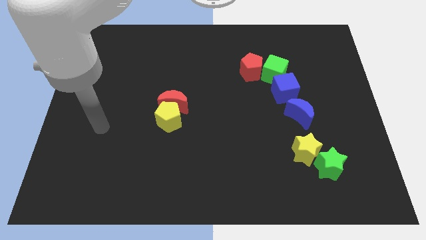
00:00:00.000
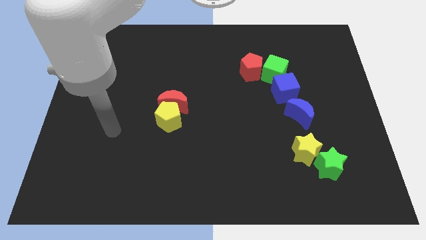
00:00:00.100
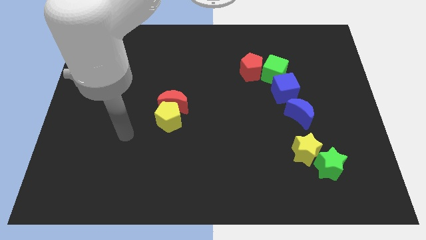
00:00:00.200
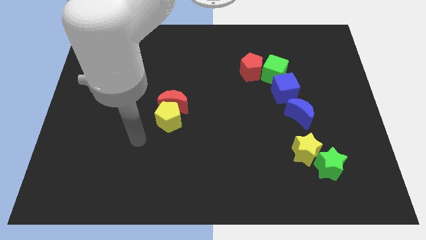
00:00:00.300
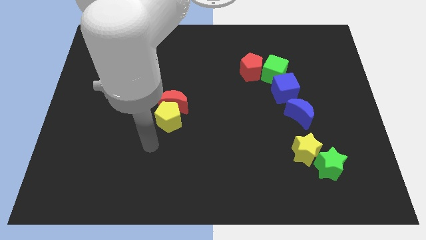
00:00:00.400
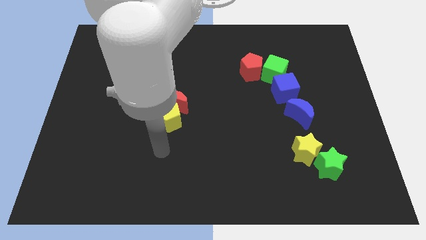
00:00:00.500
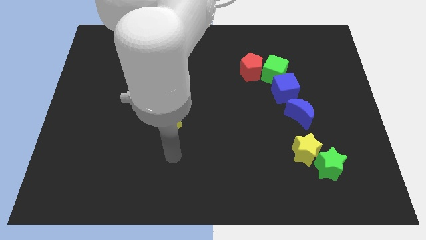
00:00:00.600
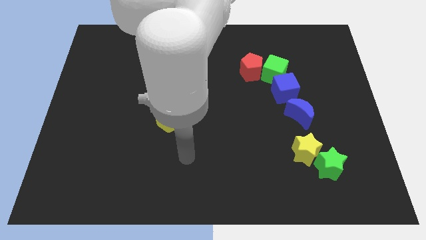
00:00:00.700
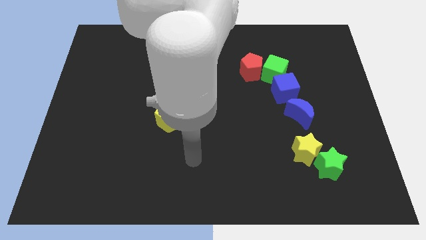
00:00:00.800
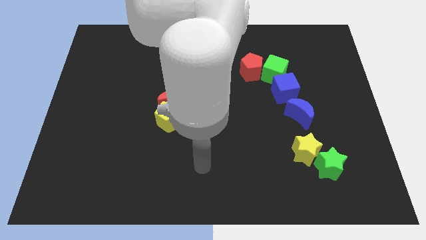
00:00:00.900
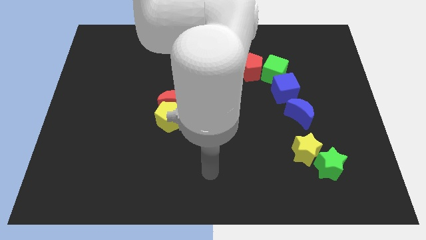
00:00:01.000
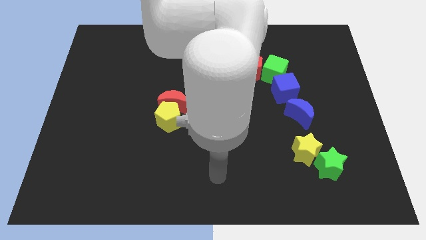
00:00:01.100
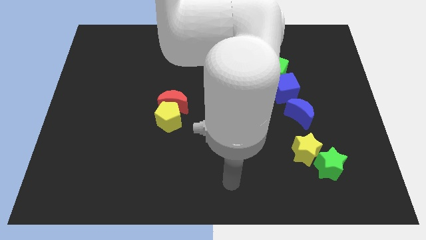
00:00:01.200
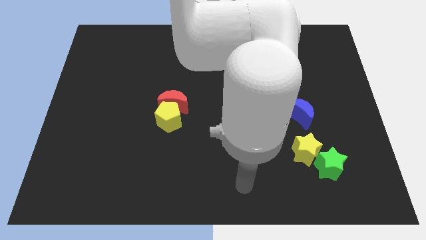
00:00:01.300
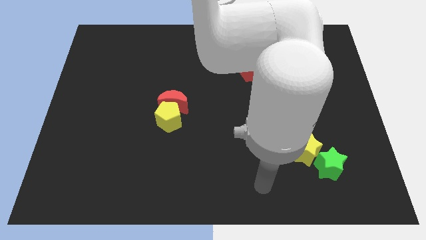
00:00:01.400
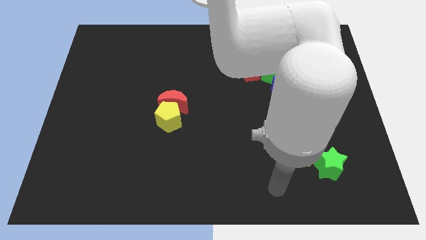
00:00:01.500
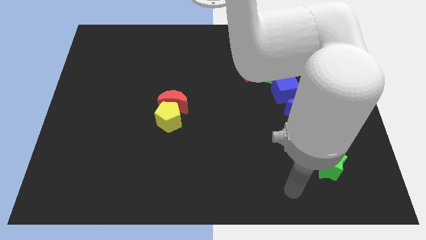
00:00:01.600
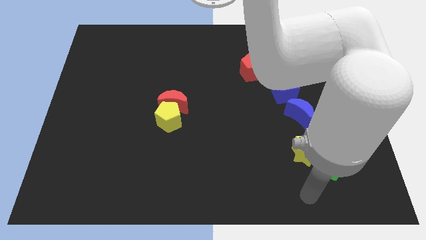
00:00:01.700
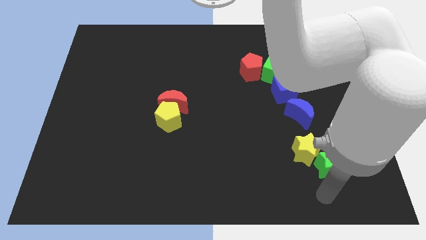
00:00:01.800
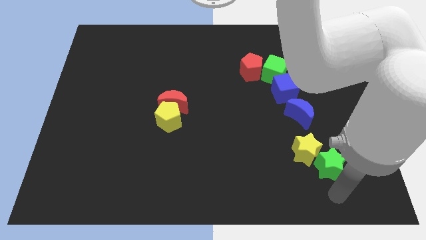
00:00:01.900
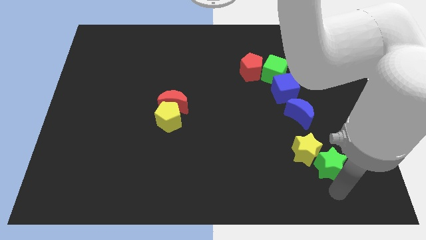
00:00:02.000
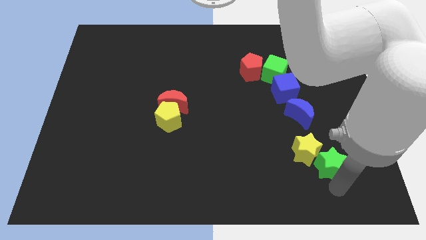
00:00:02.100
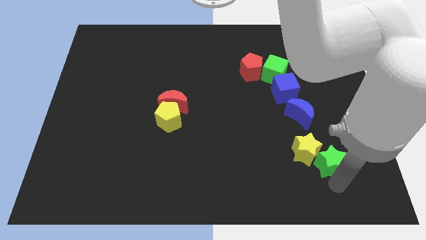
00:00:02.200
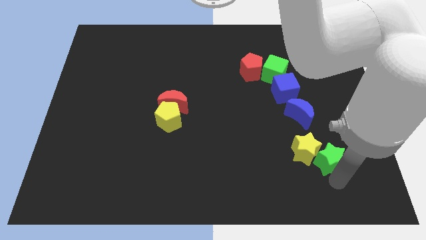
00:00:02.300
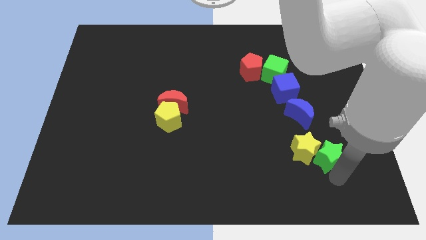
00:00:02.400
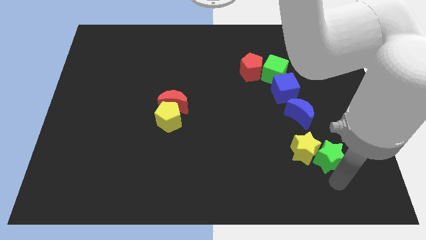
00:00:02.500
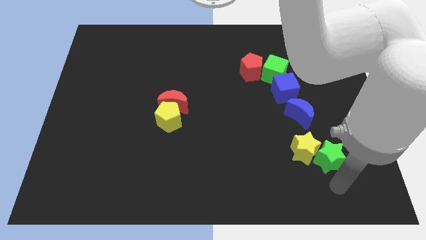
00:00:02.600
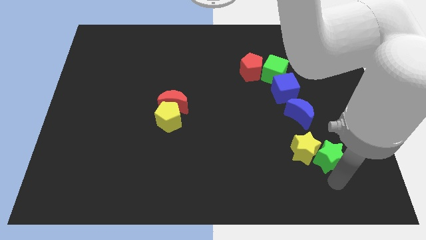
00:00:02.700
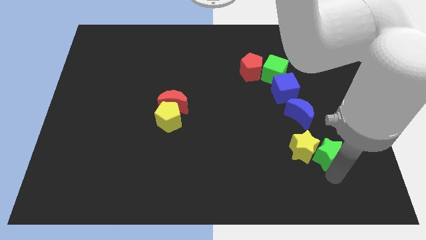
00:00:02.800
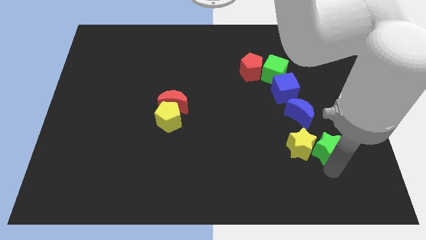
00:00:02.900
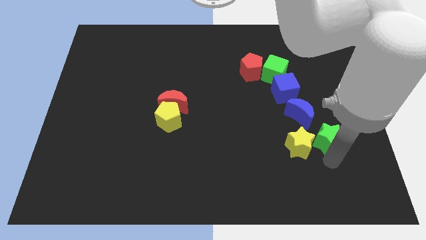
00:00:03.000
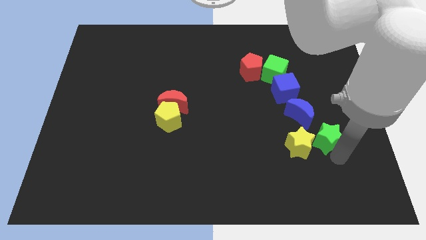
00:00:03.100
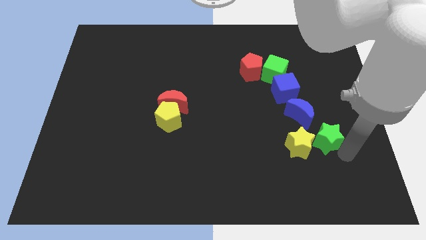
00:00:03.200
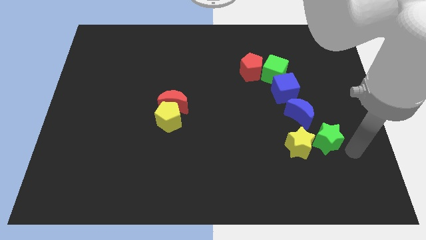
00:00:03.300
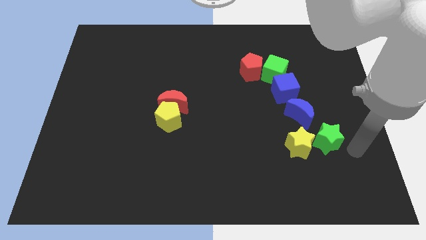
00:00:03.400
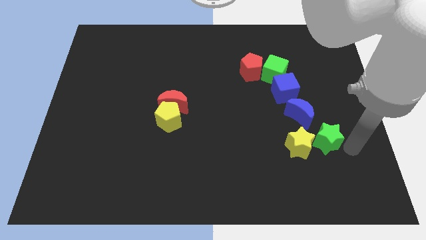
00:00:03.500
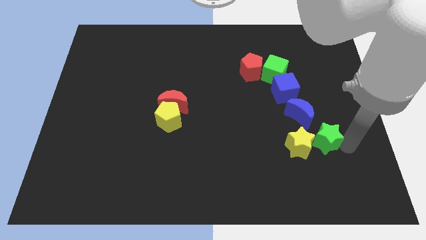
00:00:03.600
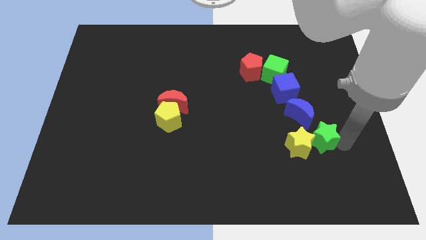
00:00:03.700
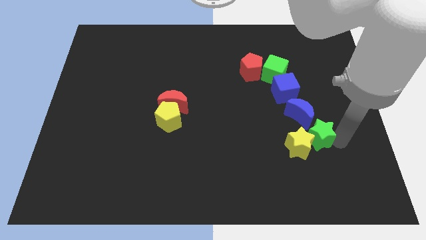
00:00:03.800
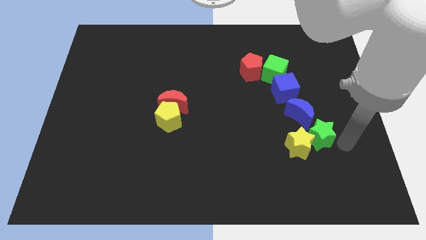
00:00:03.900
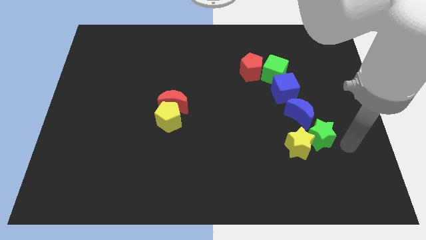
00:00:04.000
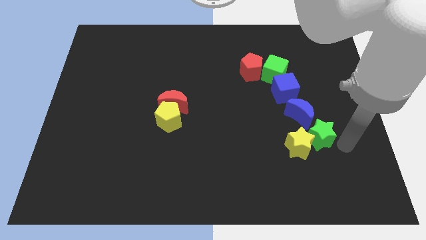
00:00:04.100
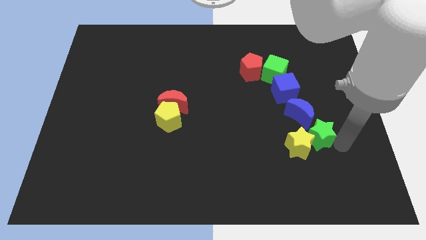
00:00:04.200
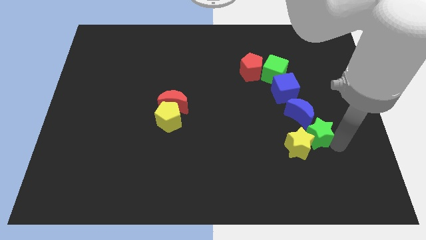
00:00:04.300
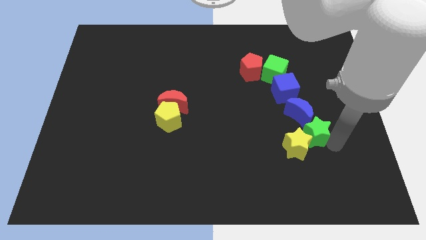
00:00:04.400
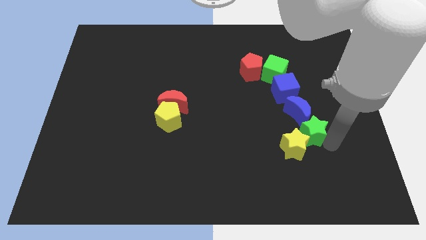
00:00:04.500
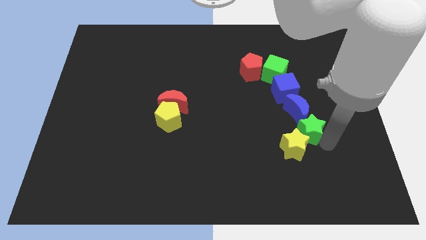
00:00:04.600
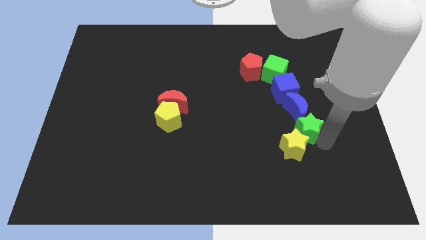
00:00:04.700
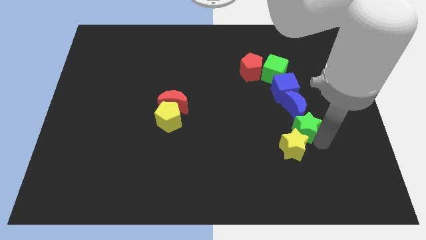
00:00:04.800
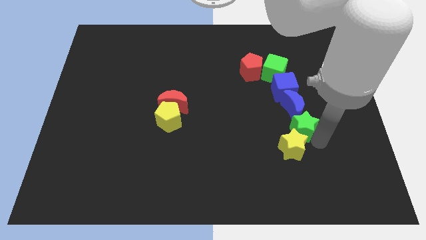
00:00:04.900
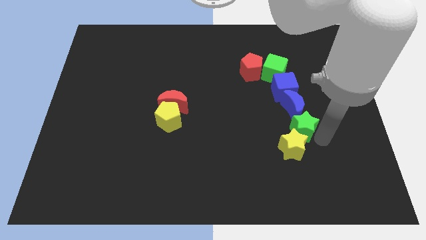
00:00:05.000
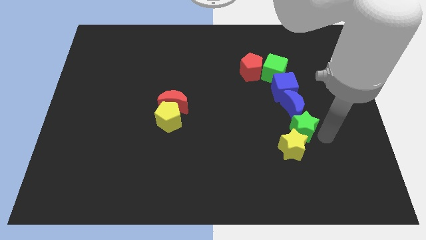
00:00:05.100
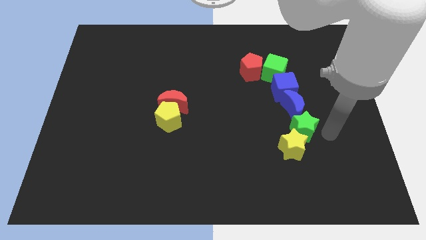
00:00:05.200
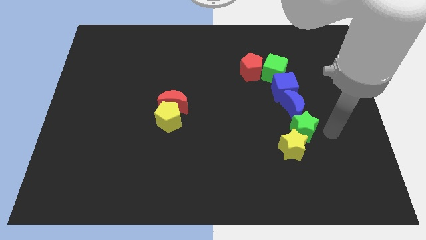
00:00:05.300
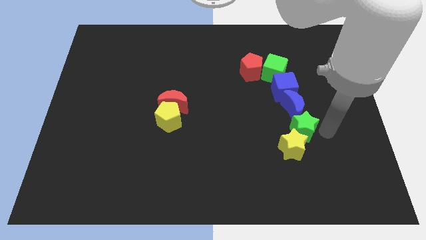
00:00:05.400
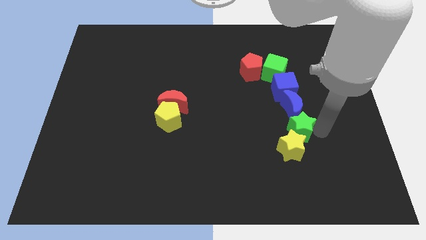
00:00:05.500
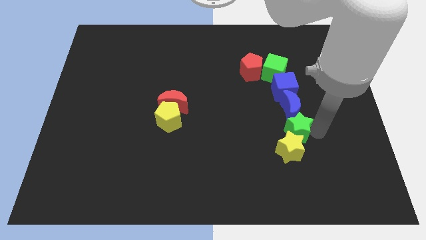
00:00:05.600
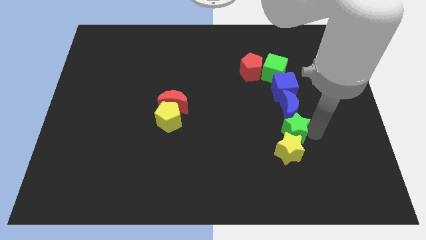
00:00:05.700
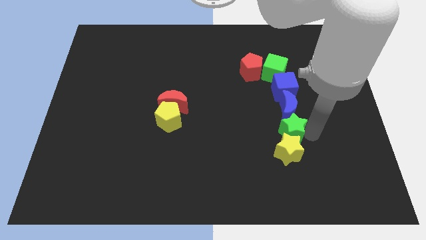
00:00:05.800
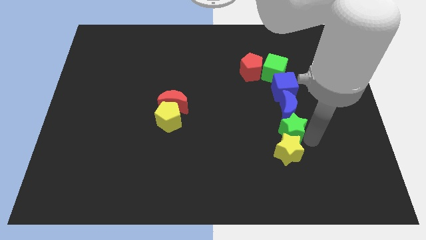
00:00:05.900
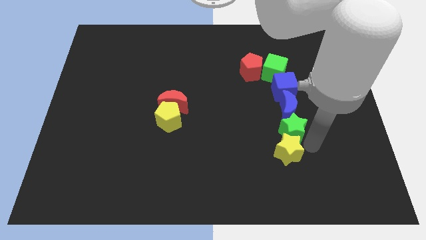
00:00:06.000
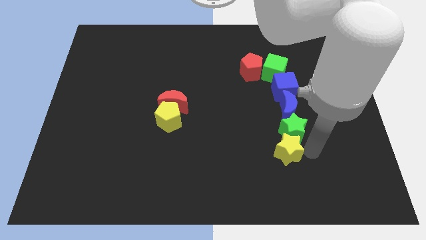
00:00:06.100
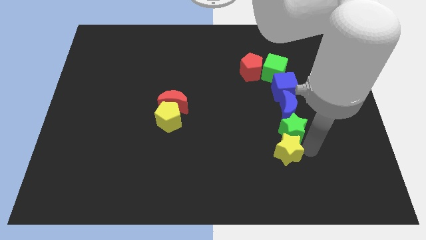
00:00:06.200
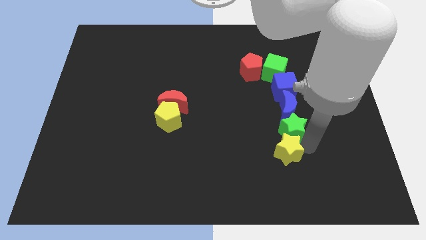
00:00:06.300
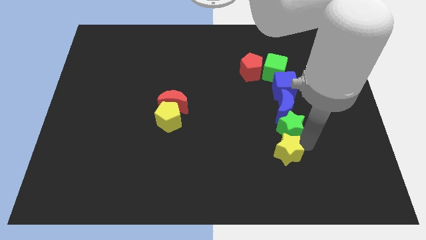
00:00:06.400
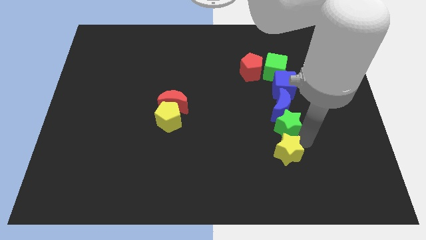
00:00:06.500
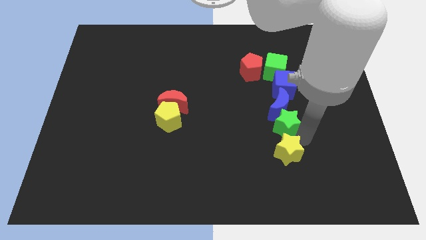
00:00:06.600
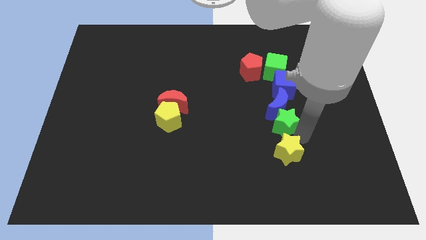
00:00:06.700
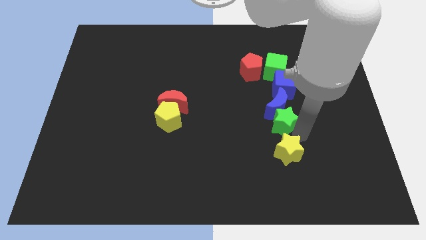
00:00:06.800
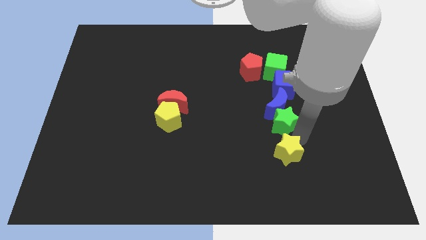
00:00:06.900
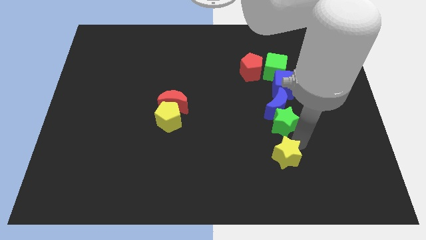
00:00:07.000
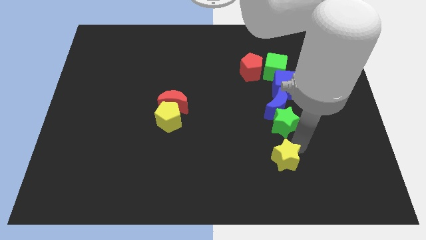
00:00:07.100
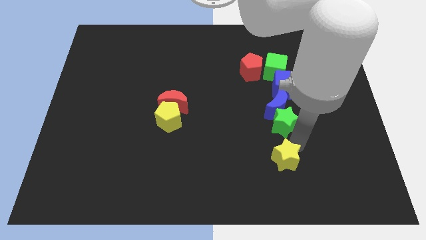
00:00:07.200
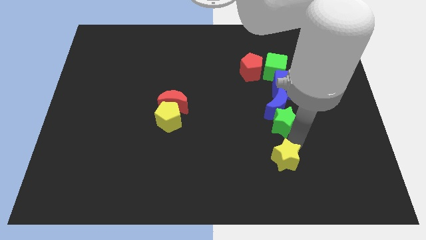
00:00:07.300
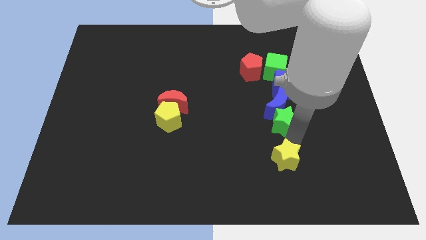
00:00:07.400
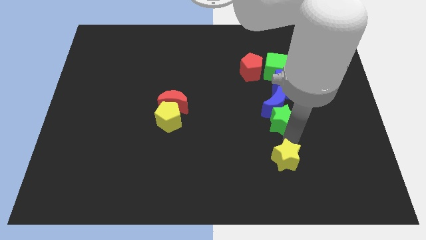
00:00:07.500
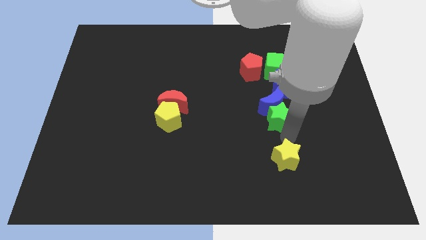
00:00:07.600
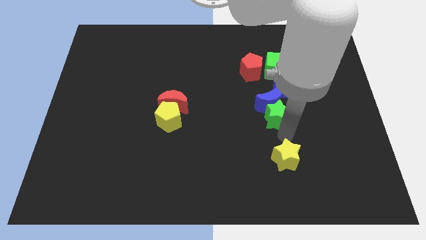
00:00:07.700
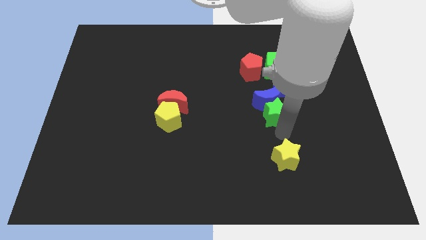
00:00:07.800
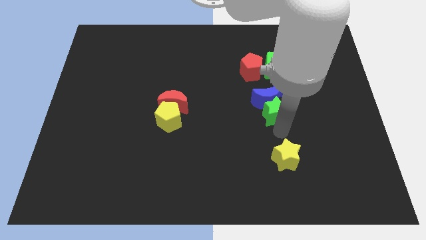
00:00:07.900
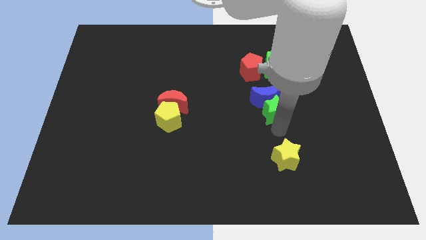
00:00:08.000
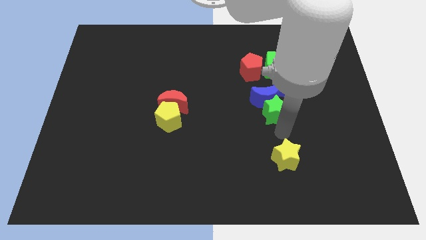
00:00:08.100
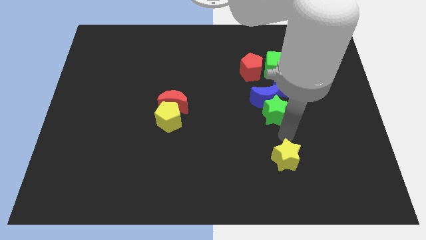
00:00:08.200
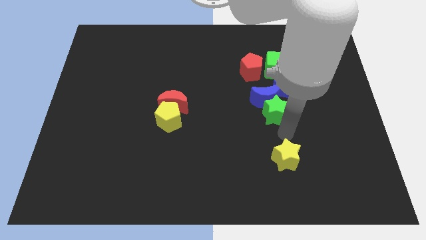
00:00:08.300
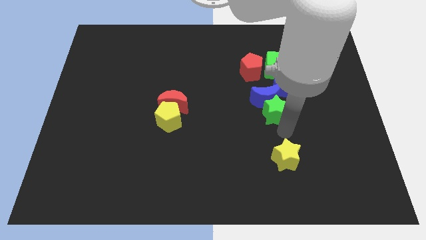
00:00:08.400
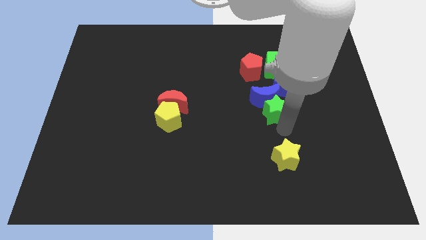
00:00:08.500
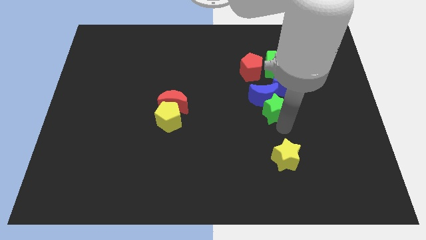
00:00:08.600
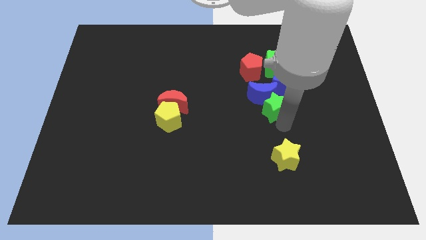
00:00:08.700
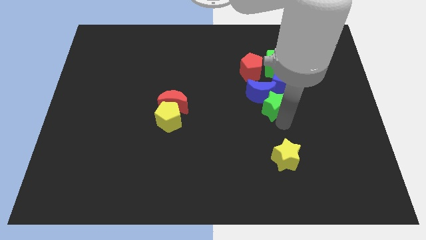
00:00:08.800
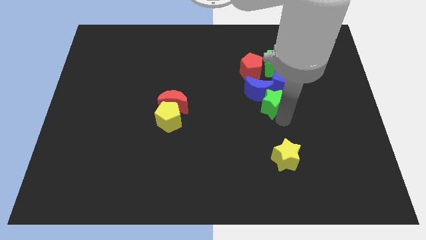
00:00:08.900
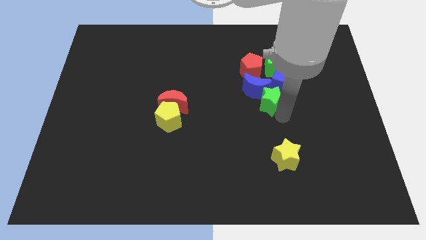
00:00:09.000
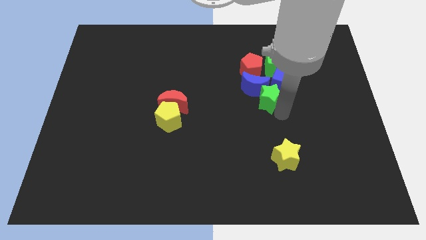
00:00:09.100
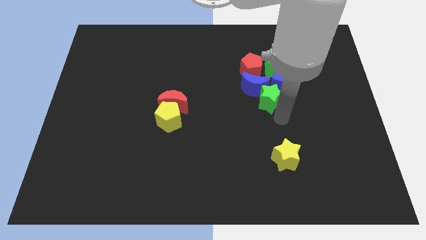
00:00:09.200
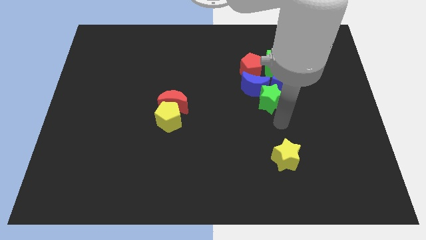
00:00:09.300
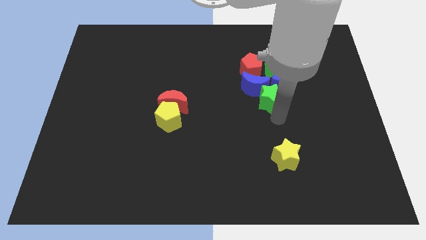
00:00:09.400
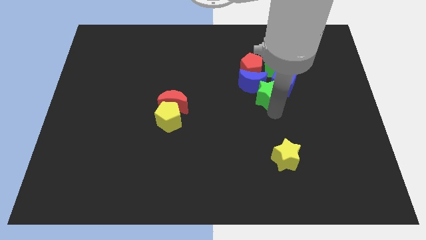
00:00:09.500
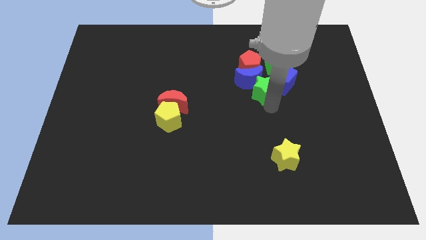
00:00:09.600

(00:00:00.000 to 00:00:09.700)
slide the green star to the bottom left side of the green cube
